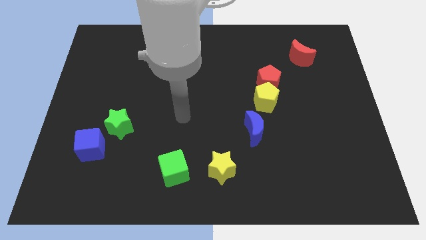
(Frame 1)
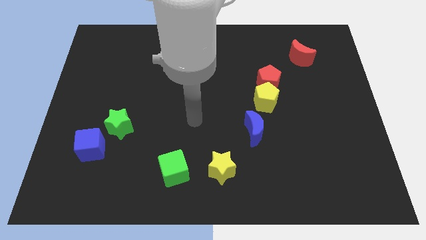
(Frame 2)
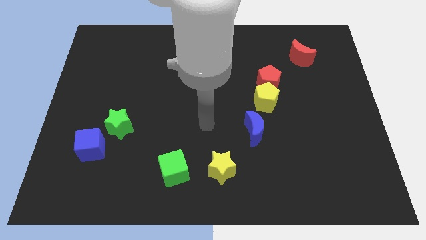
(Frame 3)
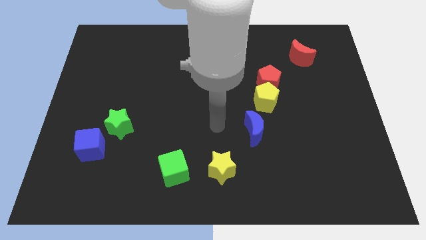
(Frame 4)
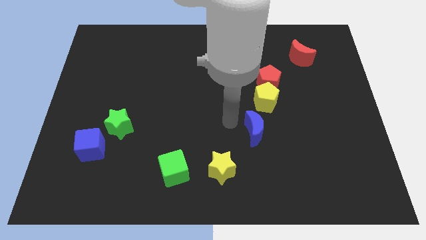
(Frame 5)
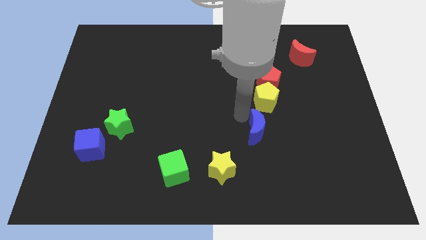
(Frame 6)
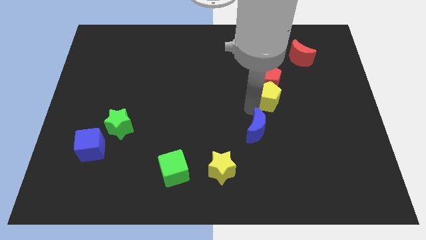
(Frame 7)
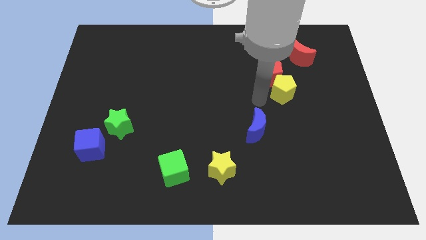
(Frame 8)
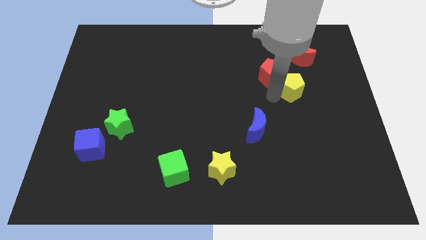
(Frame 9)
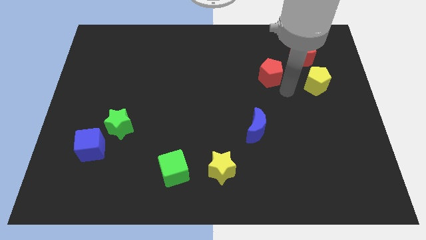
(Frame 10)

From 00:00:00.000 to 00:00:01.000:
pull the red pentagon apart from the yellow pentagon

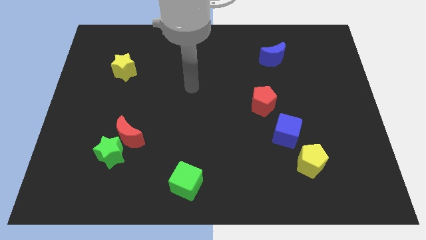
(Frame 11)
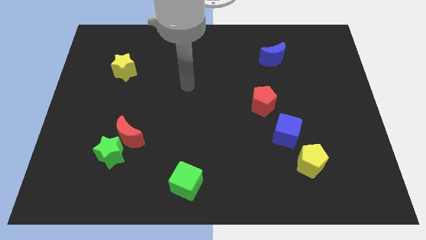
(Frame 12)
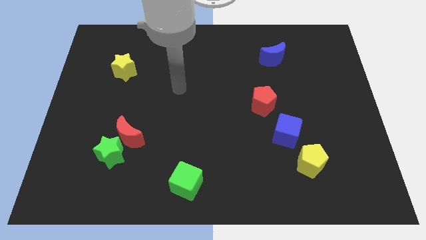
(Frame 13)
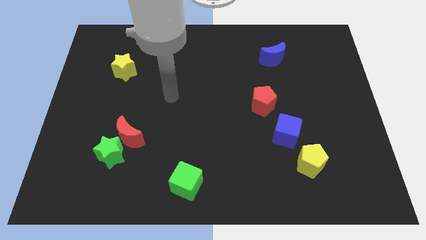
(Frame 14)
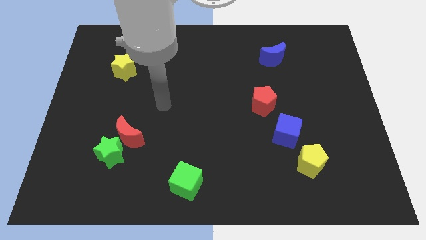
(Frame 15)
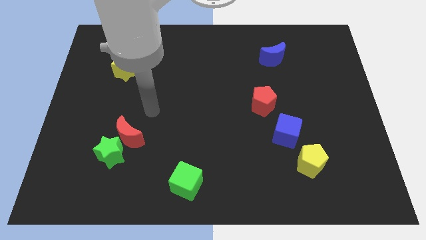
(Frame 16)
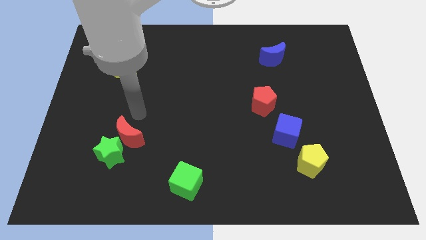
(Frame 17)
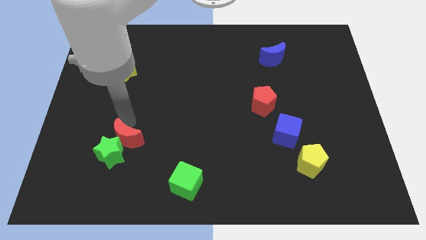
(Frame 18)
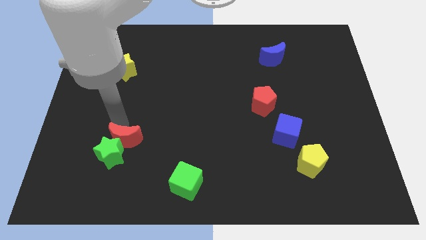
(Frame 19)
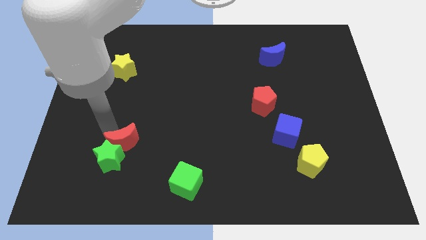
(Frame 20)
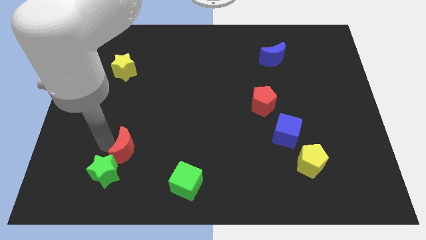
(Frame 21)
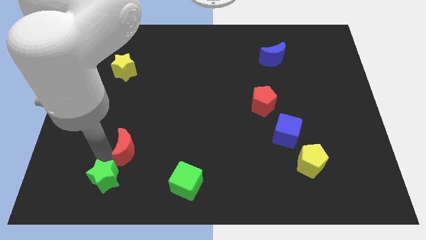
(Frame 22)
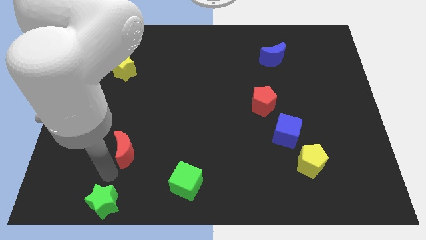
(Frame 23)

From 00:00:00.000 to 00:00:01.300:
move the red moon away from the green star

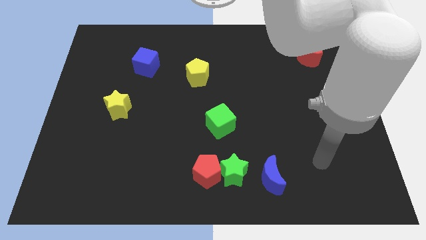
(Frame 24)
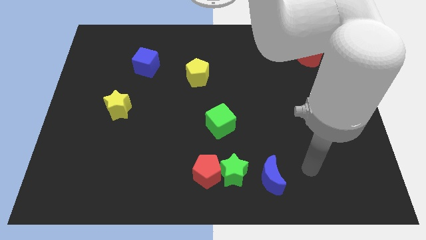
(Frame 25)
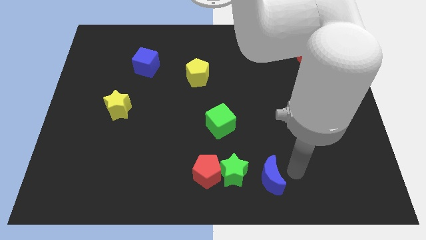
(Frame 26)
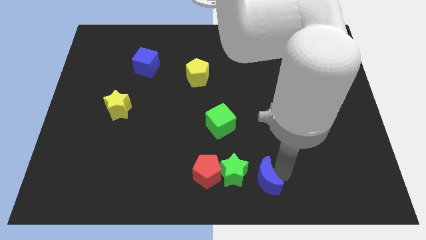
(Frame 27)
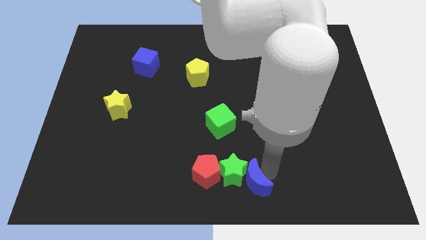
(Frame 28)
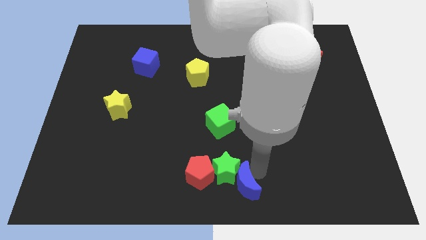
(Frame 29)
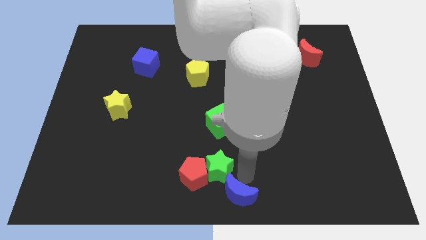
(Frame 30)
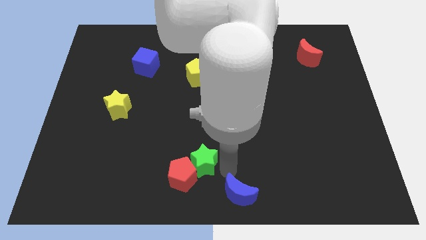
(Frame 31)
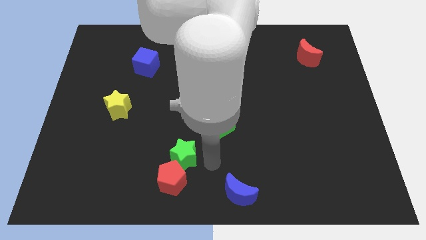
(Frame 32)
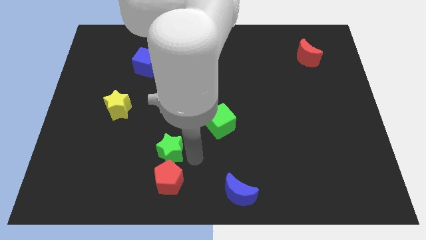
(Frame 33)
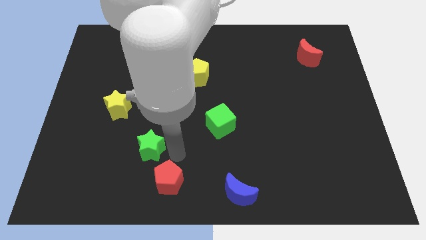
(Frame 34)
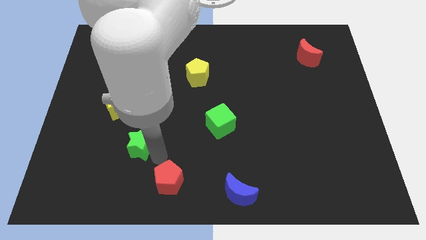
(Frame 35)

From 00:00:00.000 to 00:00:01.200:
separate the red pentagon from the green star

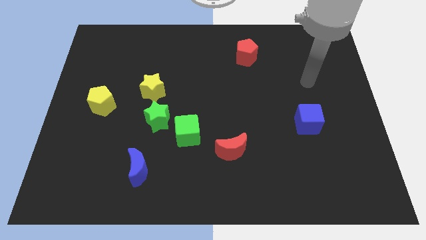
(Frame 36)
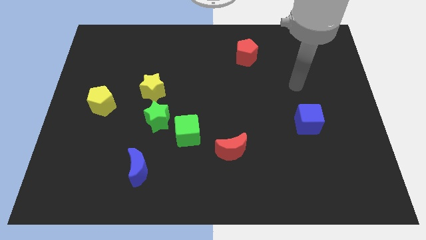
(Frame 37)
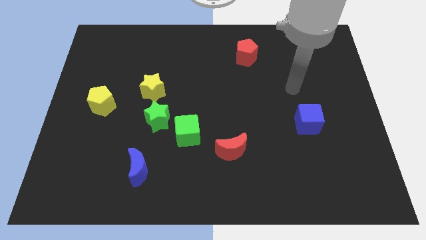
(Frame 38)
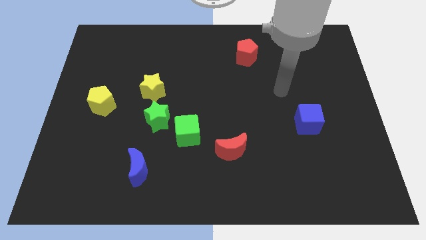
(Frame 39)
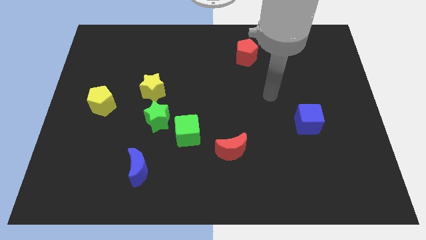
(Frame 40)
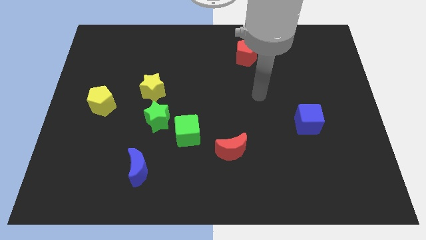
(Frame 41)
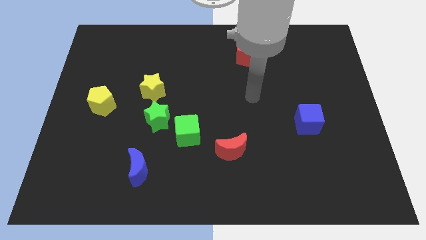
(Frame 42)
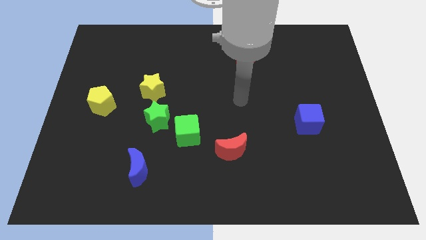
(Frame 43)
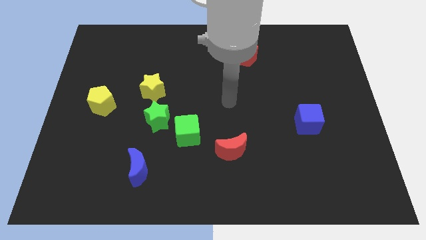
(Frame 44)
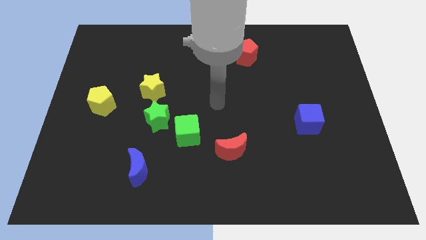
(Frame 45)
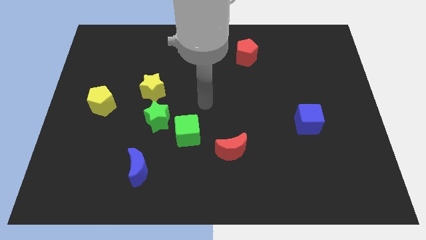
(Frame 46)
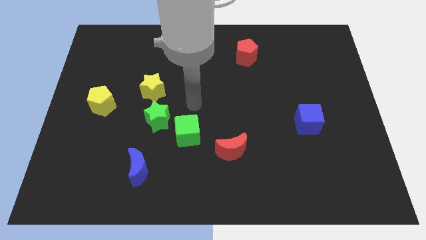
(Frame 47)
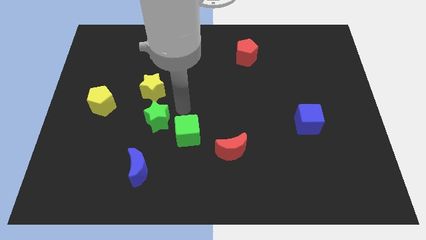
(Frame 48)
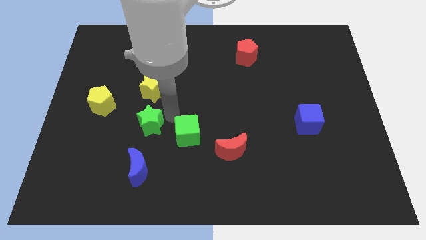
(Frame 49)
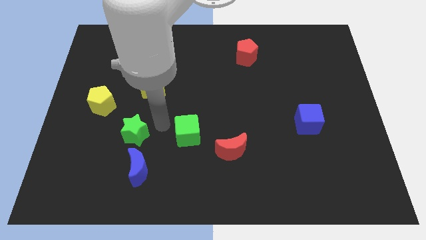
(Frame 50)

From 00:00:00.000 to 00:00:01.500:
pull the green cube apart from the green star

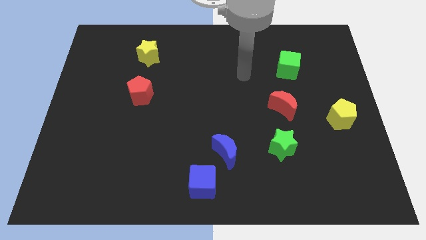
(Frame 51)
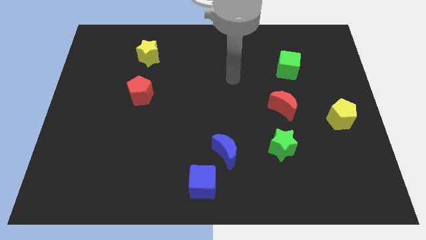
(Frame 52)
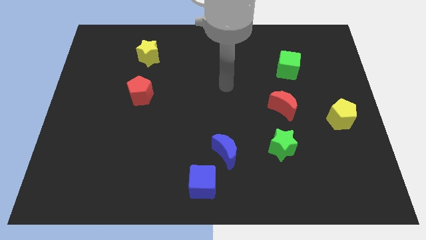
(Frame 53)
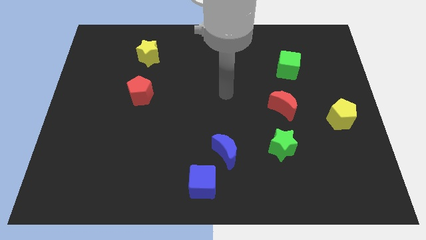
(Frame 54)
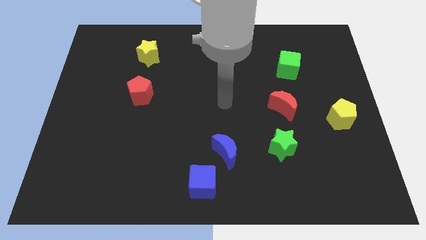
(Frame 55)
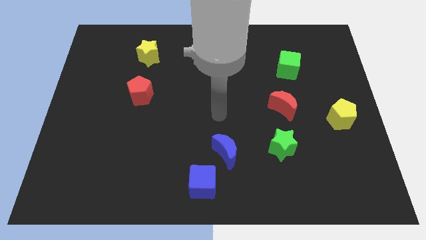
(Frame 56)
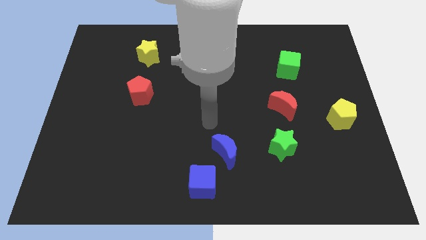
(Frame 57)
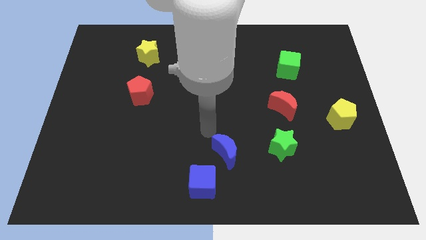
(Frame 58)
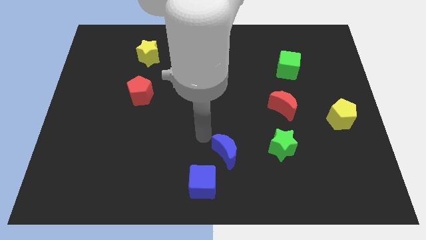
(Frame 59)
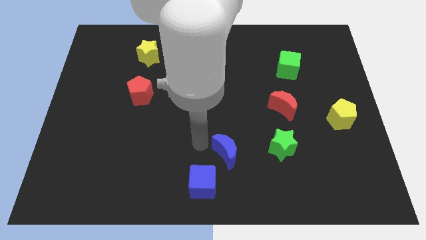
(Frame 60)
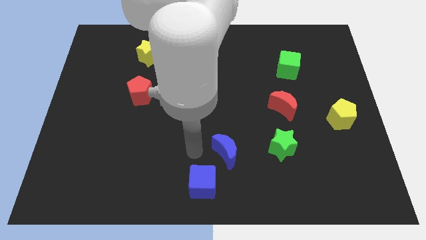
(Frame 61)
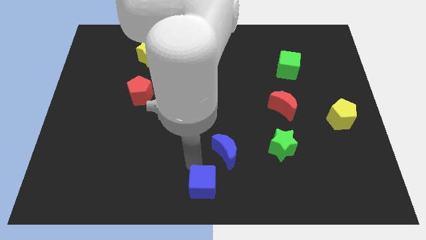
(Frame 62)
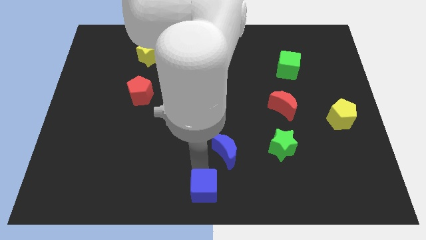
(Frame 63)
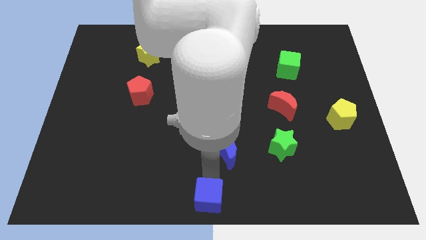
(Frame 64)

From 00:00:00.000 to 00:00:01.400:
move the blue moon away from the blue cube

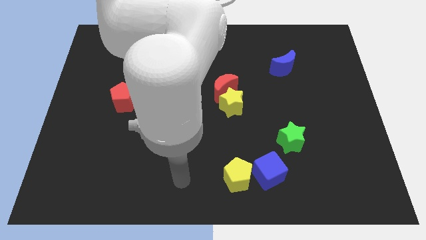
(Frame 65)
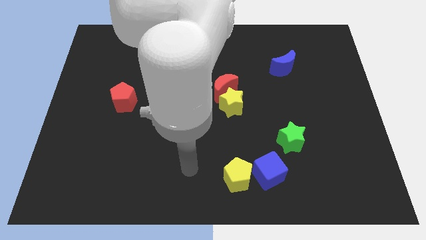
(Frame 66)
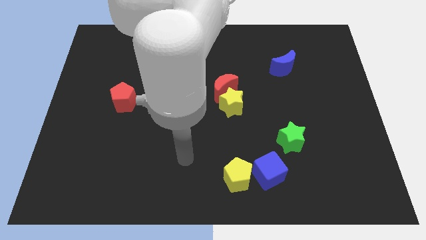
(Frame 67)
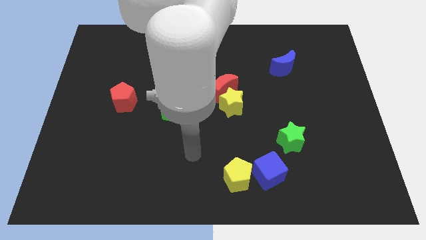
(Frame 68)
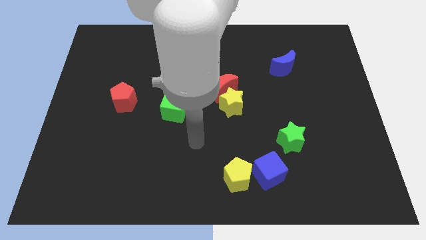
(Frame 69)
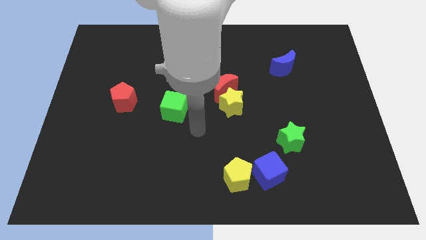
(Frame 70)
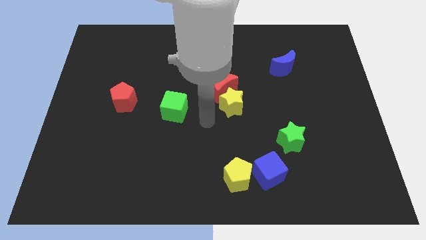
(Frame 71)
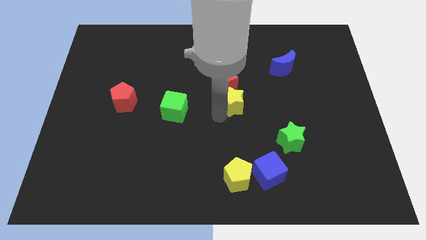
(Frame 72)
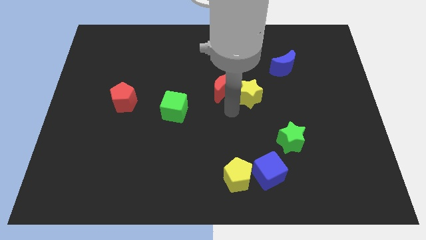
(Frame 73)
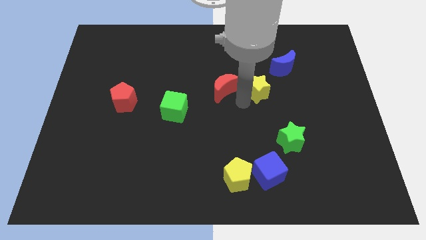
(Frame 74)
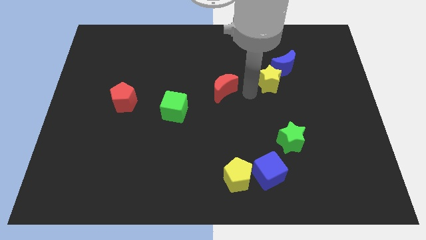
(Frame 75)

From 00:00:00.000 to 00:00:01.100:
separate the red moon from the yellow star

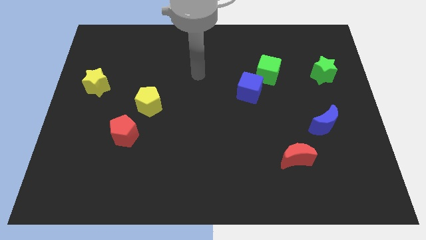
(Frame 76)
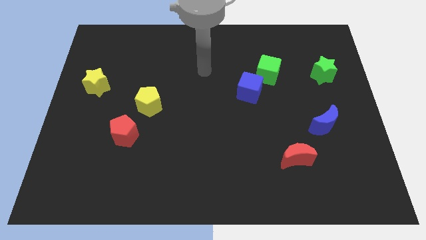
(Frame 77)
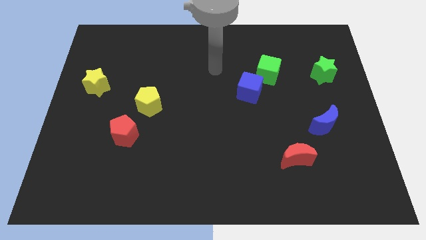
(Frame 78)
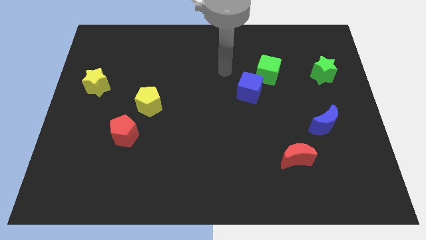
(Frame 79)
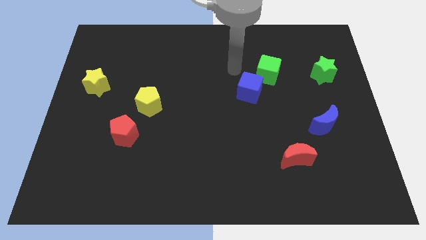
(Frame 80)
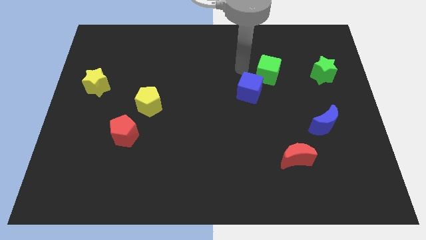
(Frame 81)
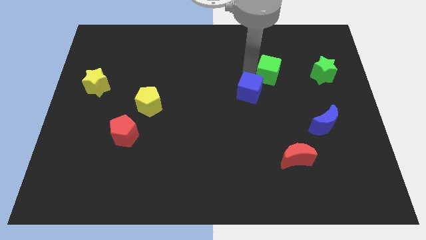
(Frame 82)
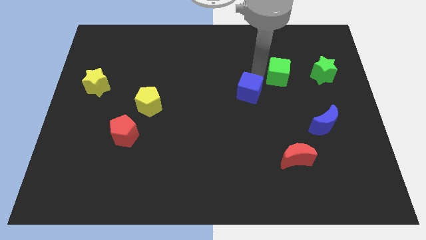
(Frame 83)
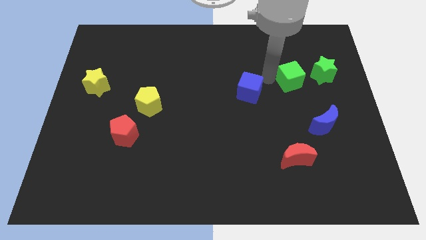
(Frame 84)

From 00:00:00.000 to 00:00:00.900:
pull the blue cube apart from the green cube

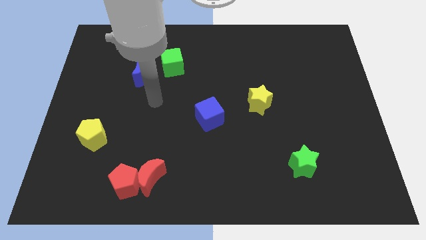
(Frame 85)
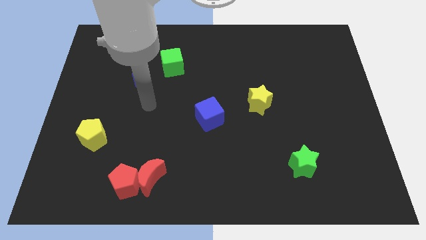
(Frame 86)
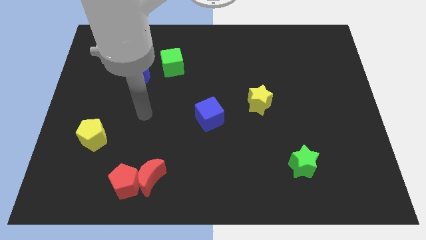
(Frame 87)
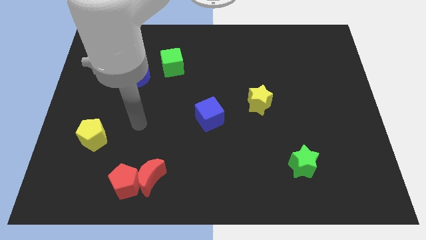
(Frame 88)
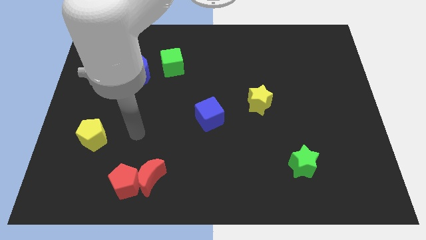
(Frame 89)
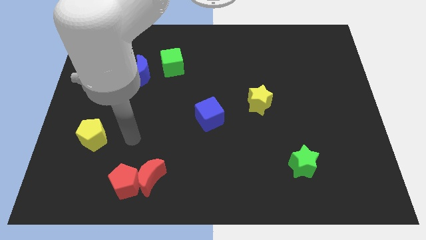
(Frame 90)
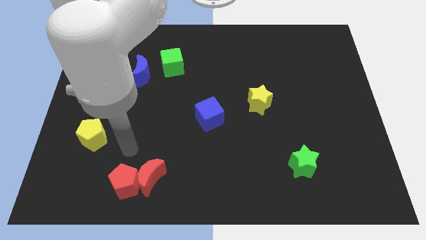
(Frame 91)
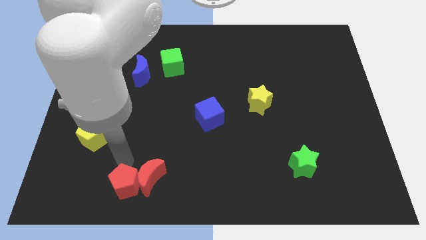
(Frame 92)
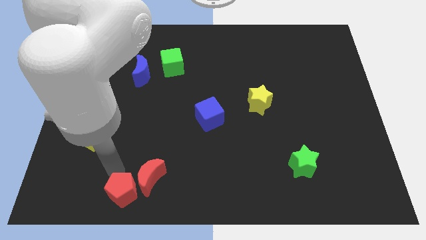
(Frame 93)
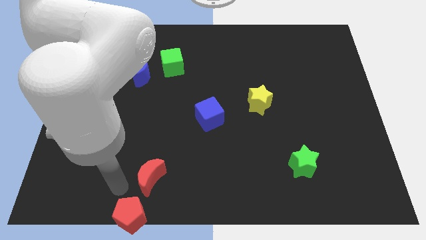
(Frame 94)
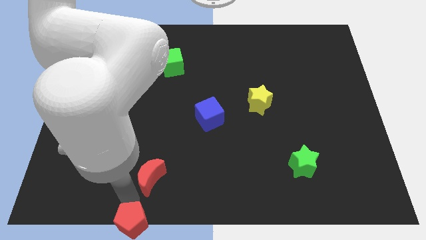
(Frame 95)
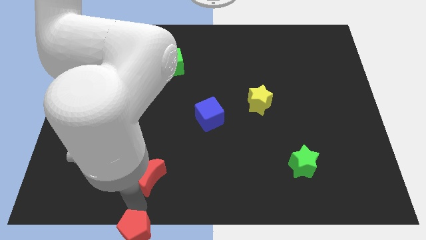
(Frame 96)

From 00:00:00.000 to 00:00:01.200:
move the red moon away from the red pentagon
